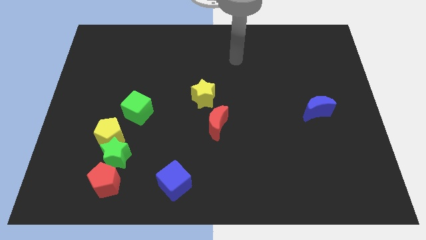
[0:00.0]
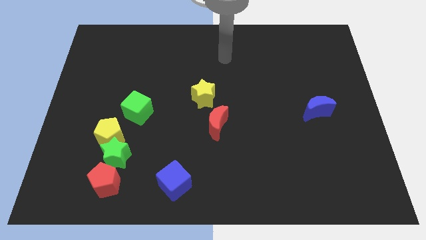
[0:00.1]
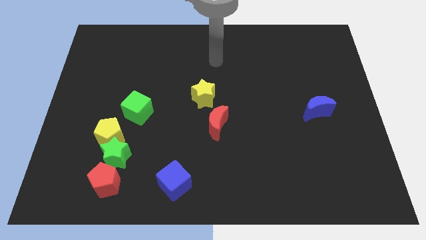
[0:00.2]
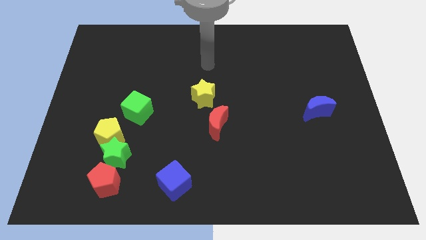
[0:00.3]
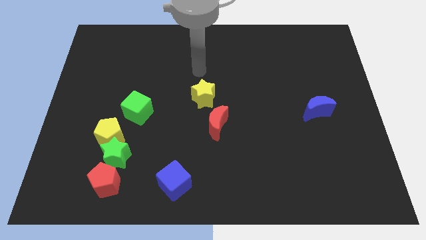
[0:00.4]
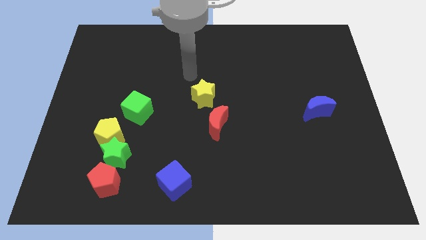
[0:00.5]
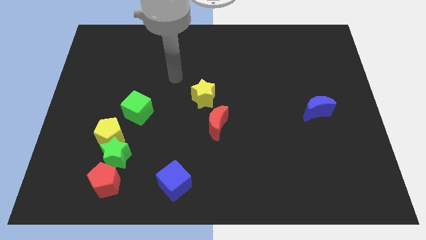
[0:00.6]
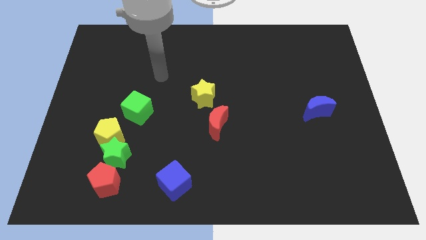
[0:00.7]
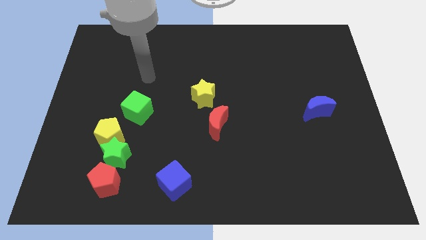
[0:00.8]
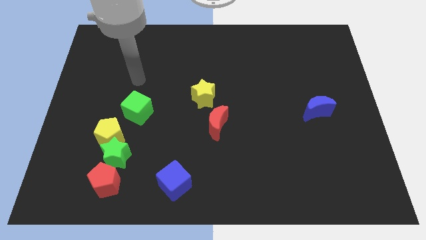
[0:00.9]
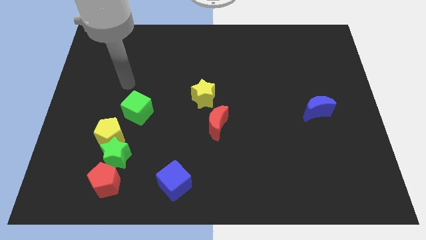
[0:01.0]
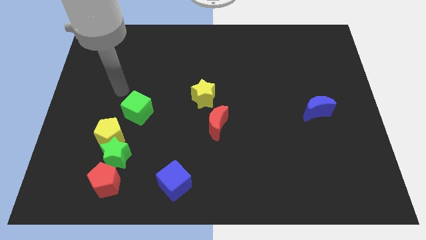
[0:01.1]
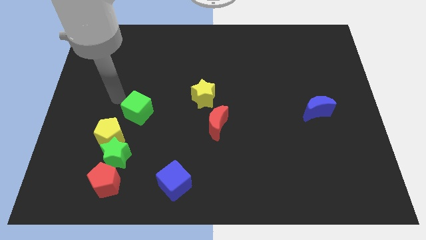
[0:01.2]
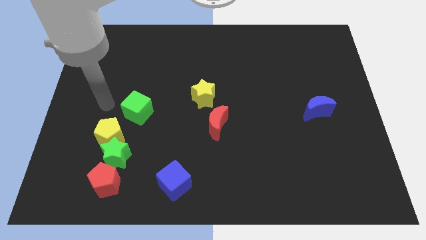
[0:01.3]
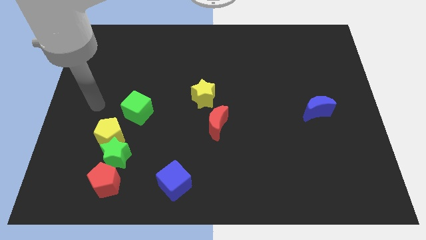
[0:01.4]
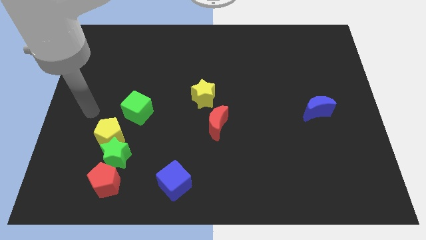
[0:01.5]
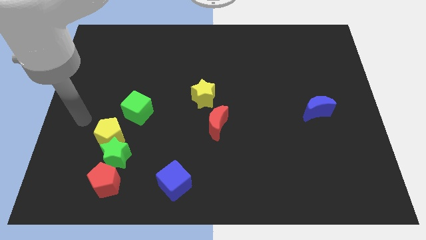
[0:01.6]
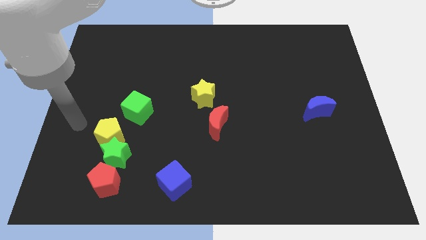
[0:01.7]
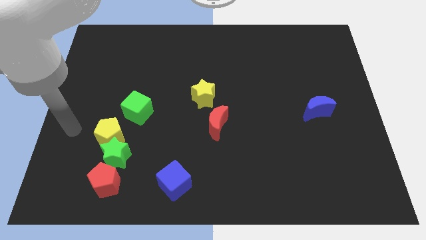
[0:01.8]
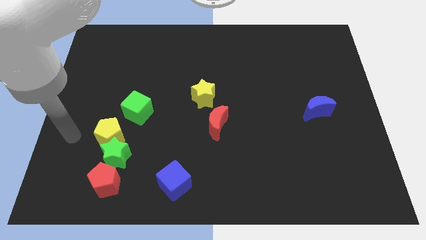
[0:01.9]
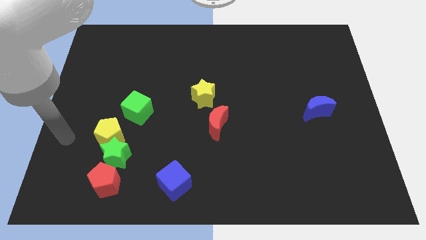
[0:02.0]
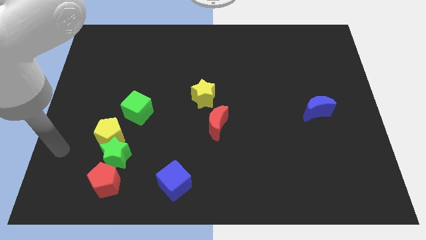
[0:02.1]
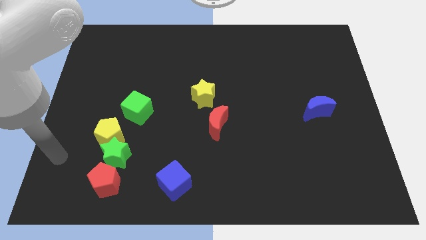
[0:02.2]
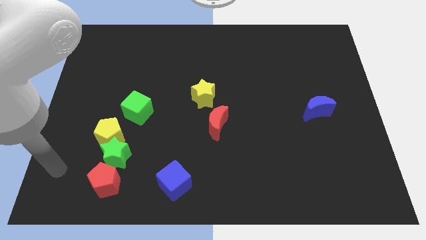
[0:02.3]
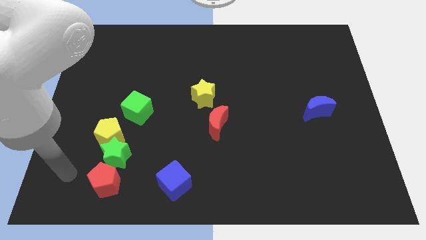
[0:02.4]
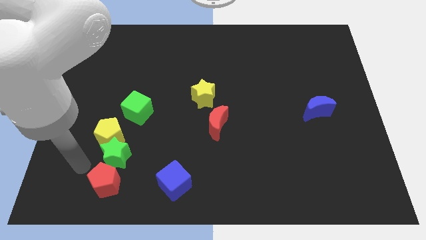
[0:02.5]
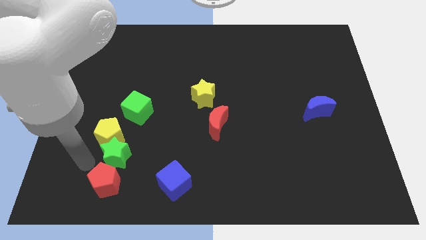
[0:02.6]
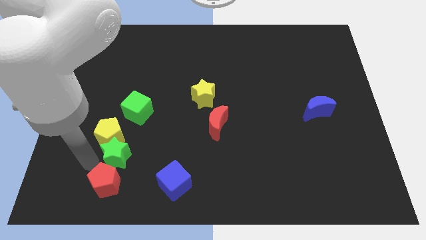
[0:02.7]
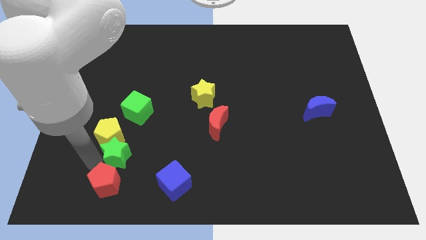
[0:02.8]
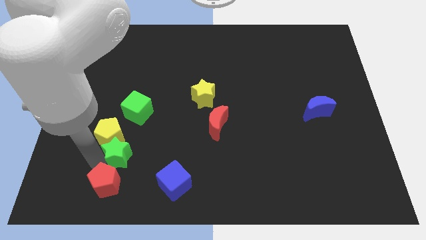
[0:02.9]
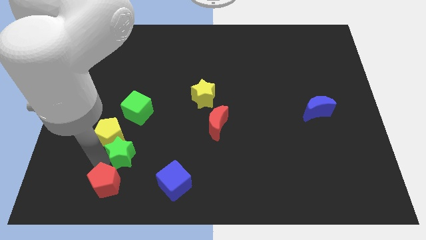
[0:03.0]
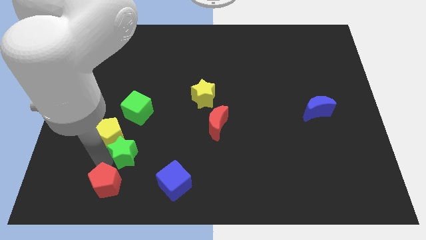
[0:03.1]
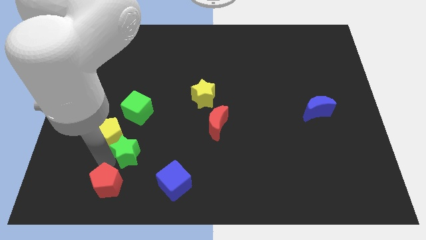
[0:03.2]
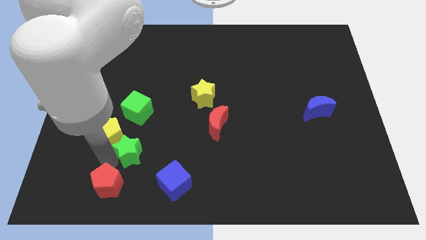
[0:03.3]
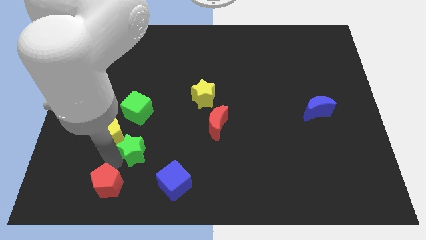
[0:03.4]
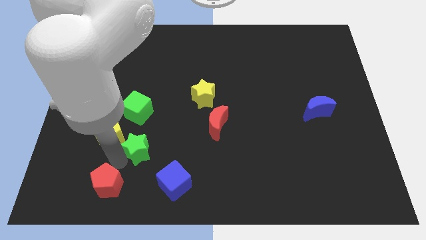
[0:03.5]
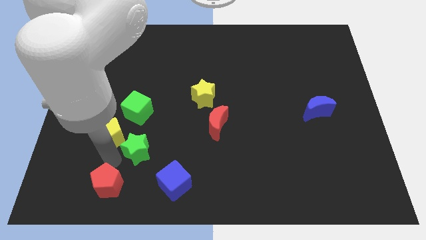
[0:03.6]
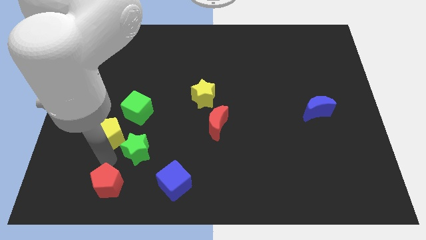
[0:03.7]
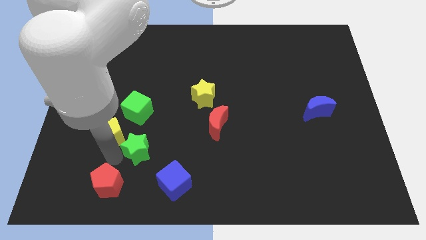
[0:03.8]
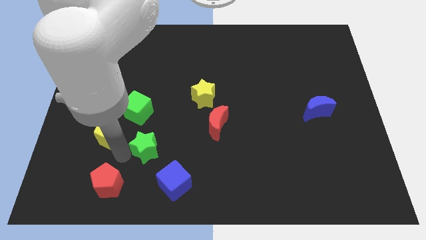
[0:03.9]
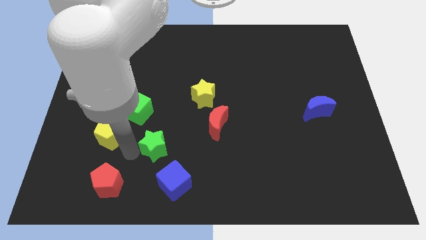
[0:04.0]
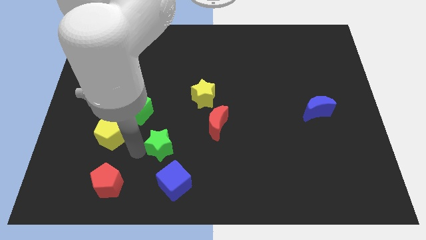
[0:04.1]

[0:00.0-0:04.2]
pull the green star apart from the yellow pentagon and red pentagon

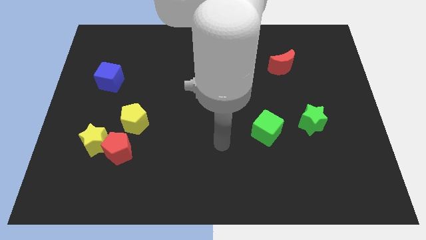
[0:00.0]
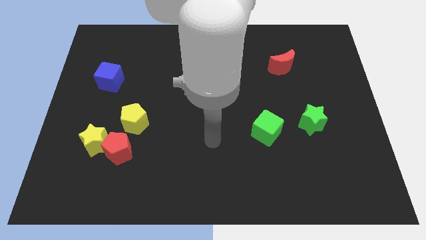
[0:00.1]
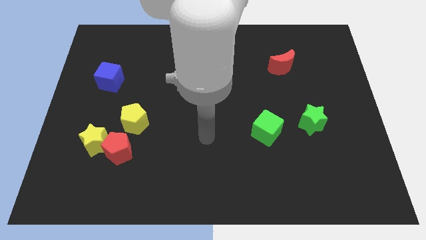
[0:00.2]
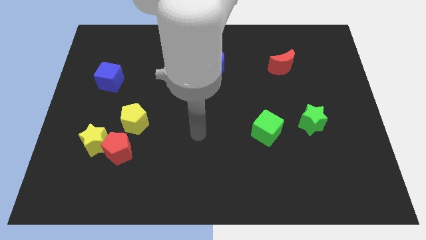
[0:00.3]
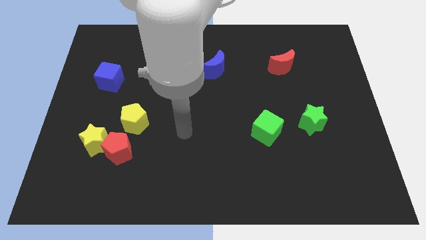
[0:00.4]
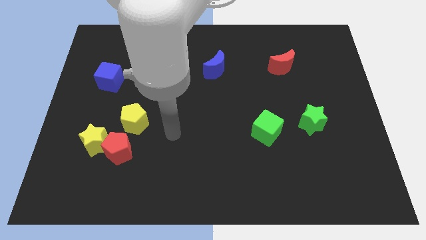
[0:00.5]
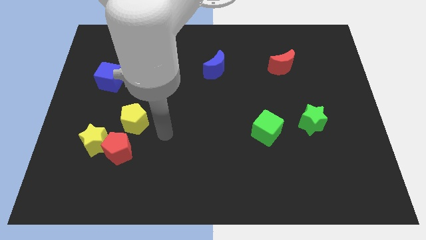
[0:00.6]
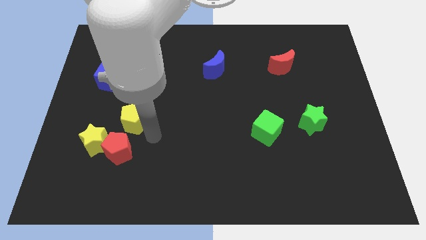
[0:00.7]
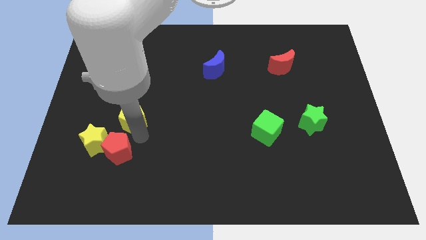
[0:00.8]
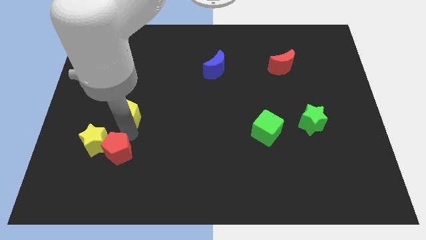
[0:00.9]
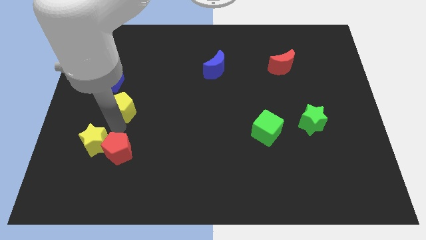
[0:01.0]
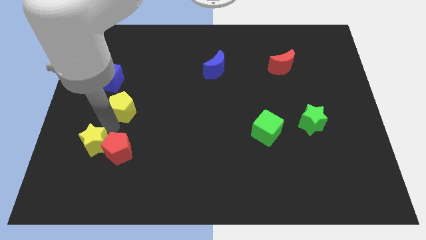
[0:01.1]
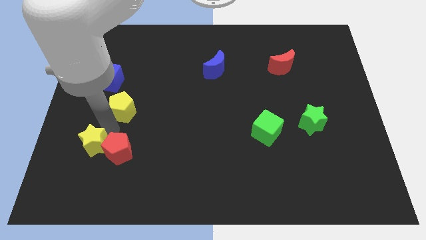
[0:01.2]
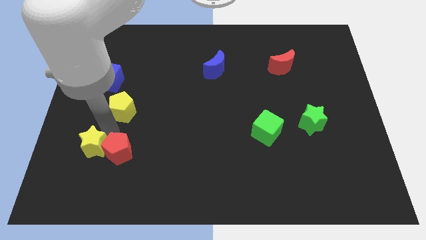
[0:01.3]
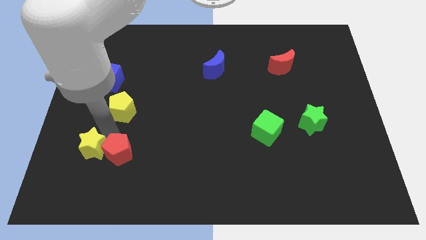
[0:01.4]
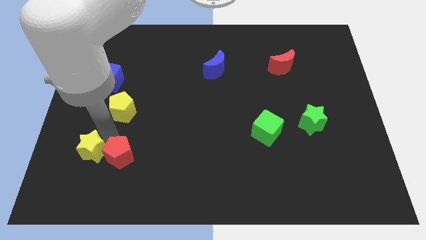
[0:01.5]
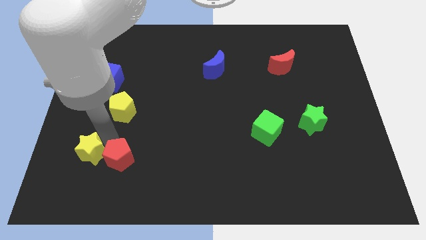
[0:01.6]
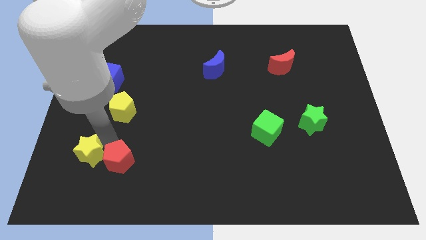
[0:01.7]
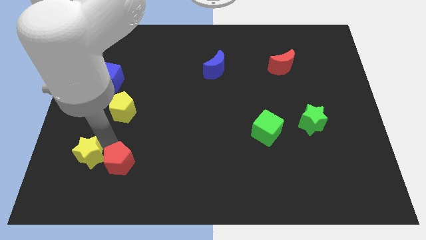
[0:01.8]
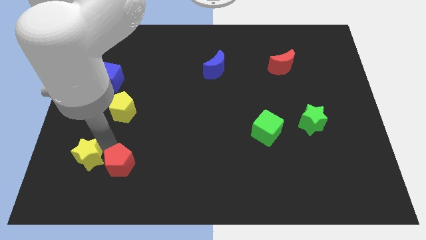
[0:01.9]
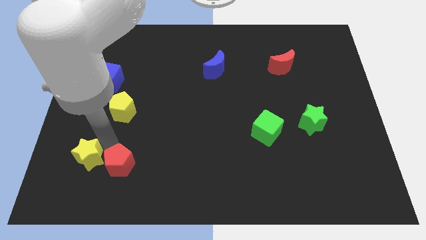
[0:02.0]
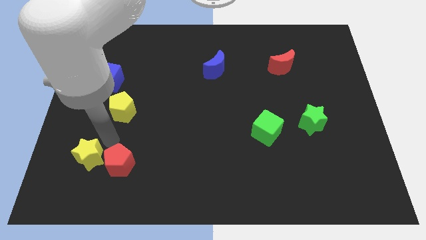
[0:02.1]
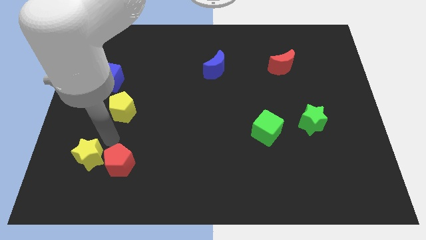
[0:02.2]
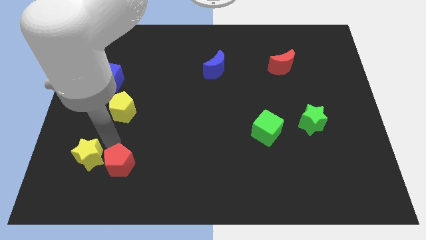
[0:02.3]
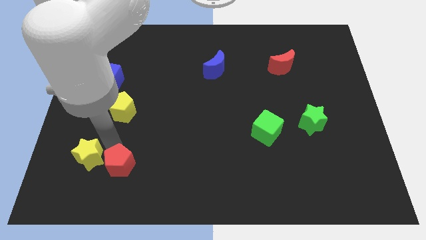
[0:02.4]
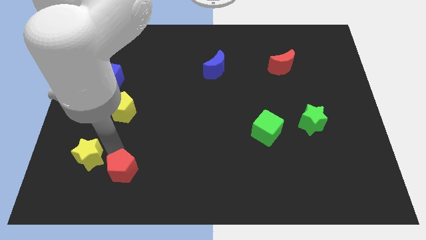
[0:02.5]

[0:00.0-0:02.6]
pull the red pentagon apart from the yellow star and yellow pentagon

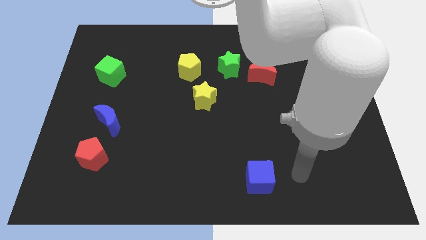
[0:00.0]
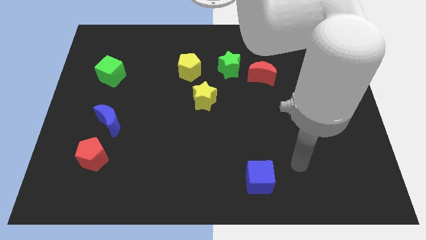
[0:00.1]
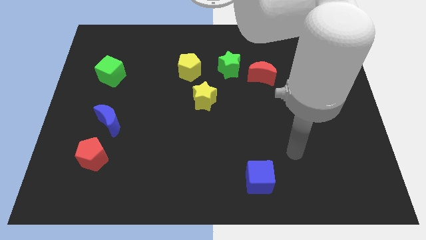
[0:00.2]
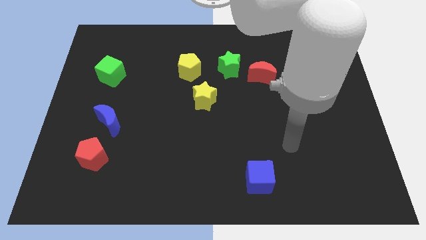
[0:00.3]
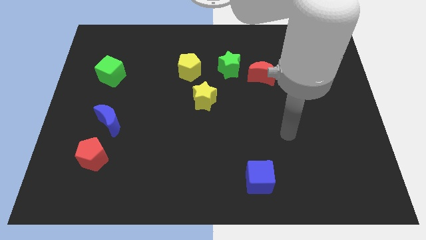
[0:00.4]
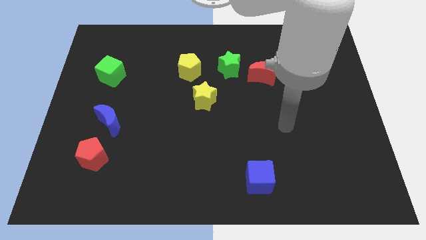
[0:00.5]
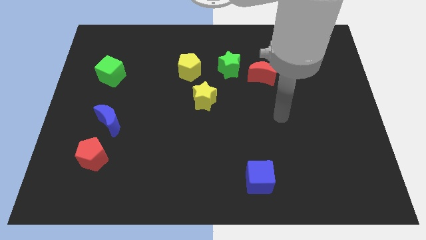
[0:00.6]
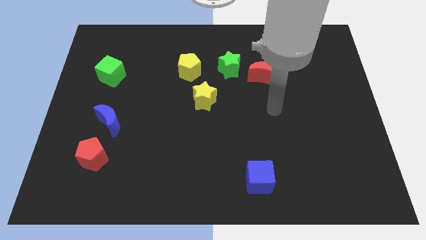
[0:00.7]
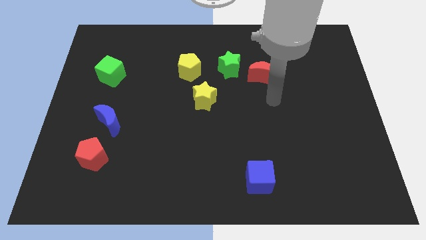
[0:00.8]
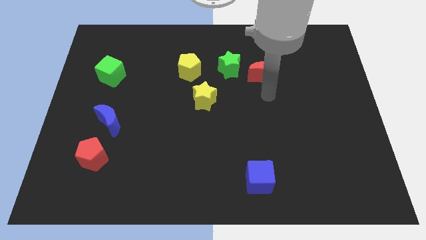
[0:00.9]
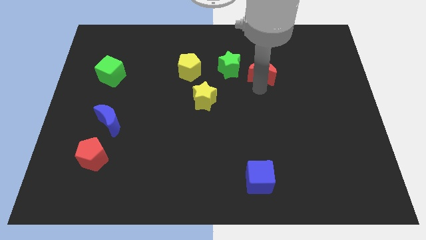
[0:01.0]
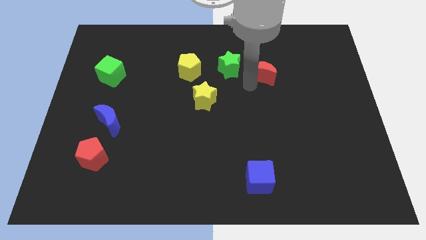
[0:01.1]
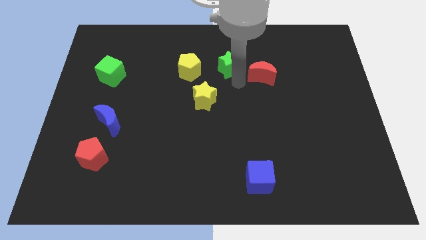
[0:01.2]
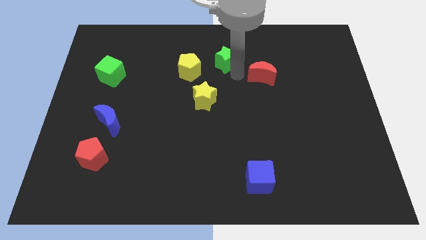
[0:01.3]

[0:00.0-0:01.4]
pull the red moon apart from the green star

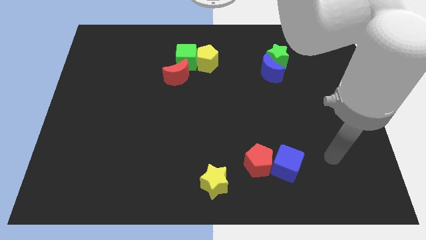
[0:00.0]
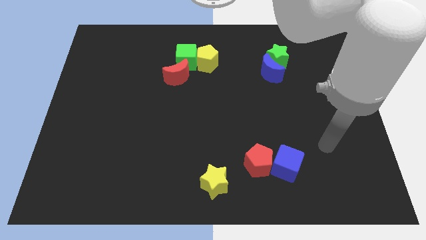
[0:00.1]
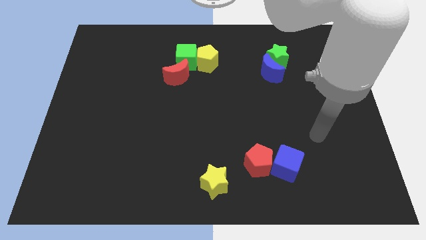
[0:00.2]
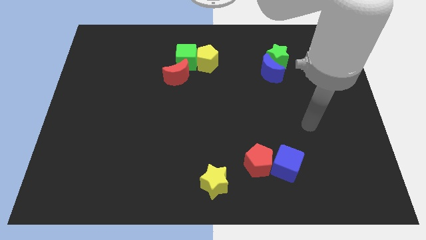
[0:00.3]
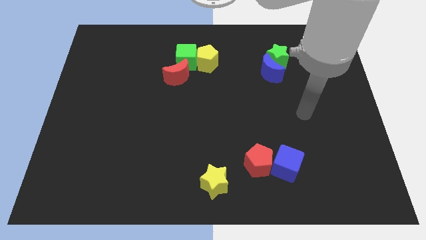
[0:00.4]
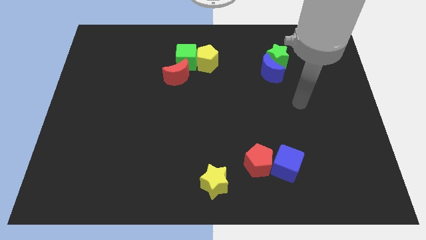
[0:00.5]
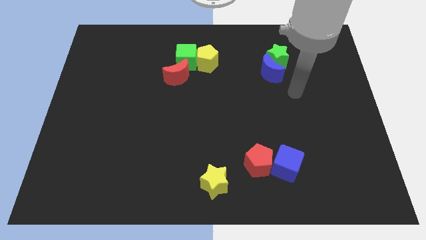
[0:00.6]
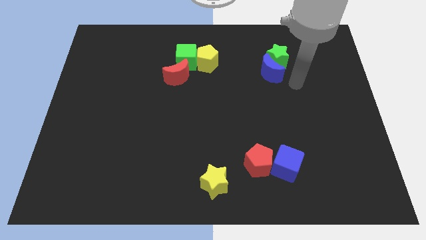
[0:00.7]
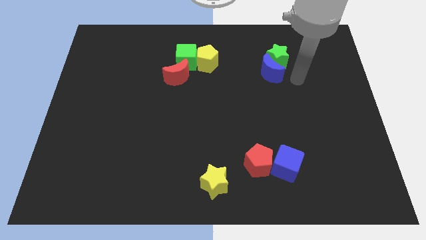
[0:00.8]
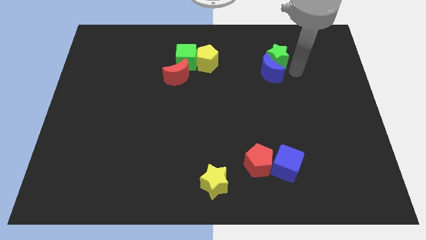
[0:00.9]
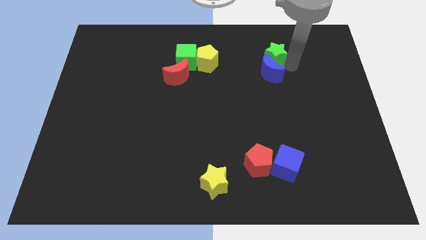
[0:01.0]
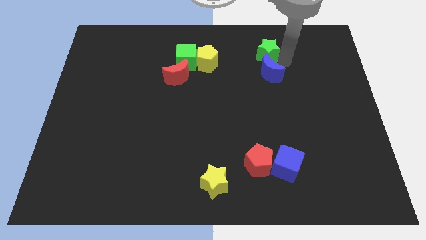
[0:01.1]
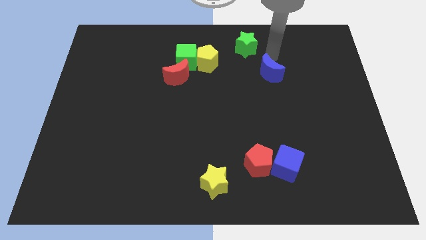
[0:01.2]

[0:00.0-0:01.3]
pull the blue moon apart from the green star
